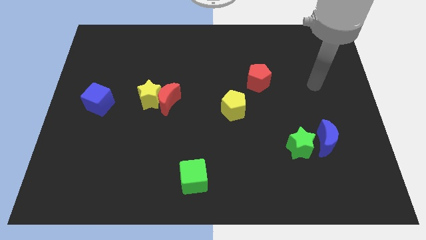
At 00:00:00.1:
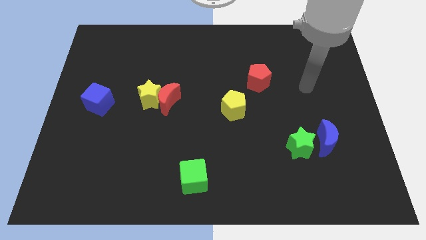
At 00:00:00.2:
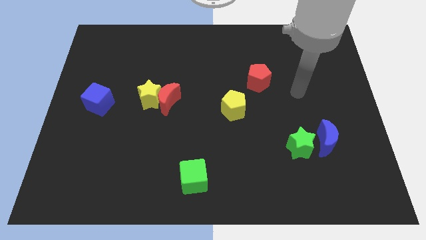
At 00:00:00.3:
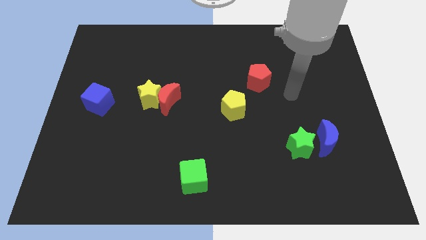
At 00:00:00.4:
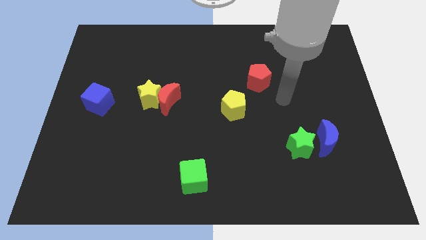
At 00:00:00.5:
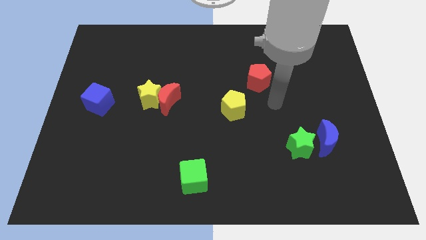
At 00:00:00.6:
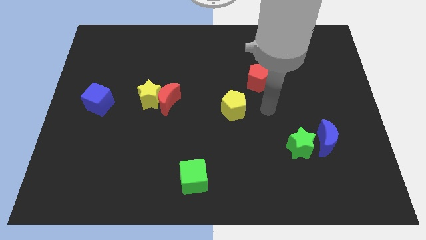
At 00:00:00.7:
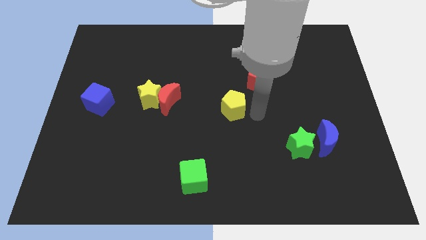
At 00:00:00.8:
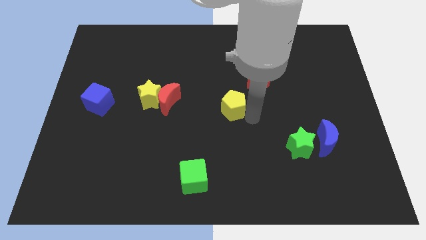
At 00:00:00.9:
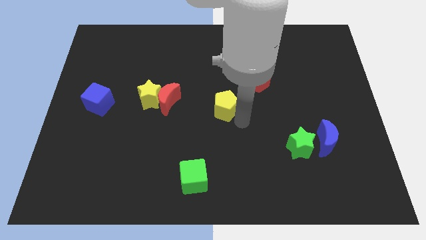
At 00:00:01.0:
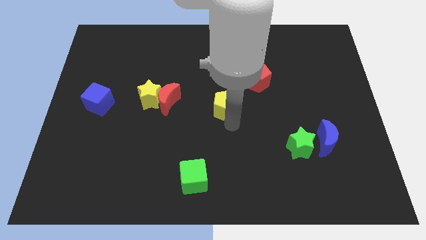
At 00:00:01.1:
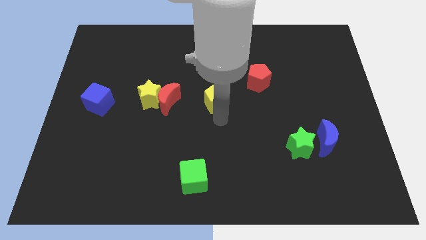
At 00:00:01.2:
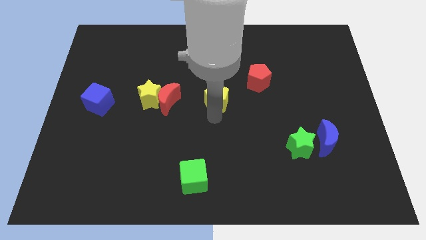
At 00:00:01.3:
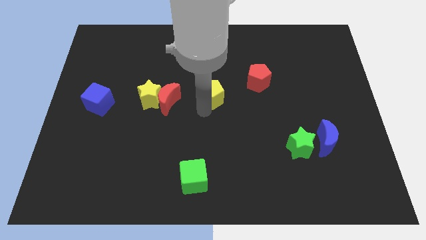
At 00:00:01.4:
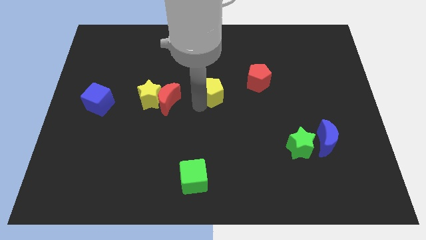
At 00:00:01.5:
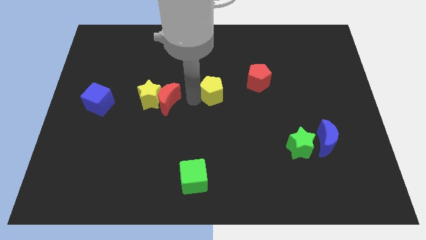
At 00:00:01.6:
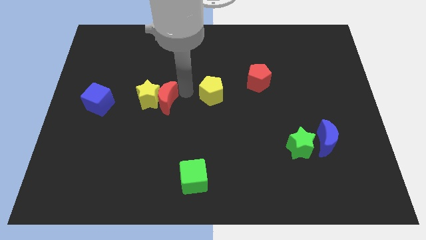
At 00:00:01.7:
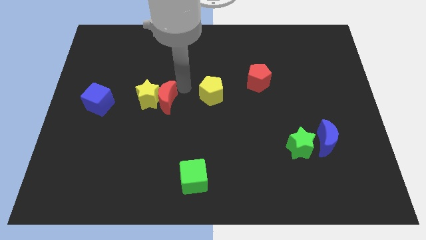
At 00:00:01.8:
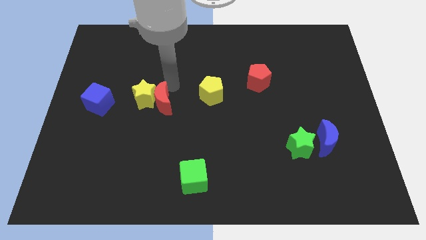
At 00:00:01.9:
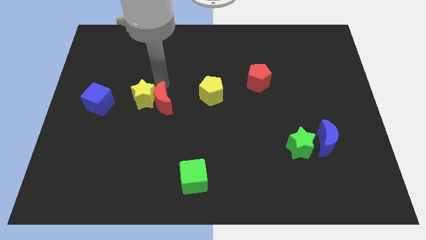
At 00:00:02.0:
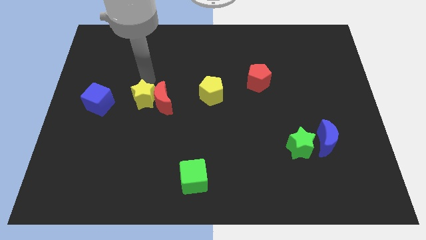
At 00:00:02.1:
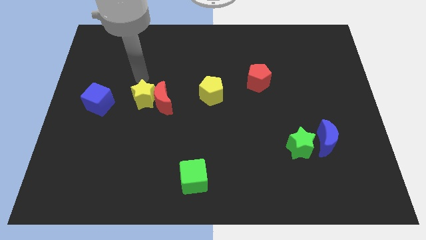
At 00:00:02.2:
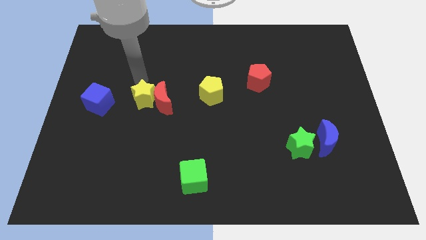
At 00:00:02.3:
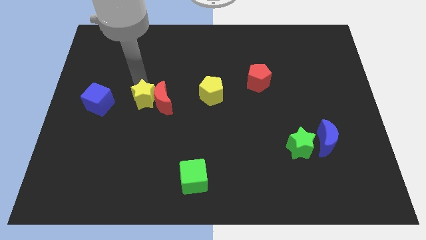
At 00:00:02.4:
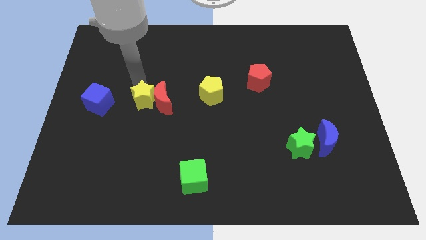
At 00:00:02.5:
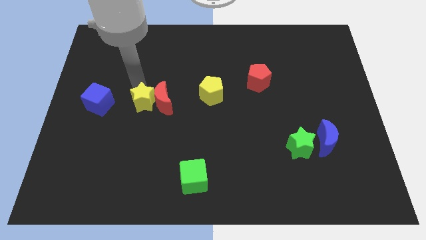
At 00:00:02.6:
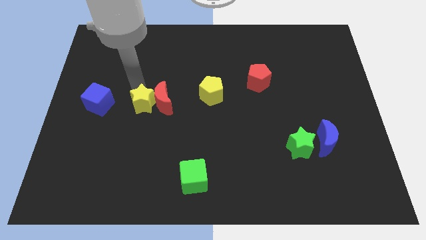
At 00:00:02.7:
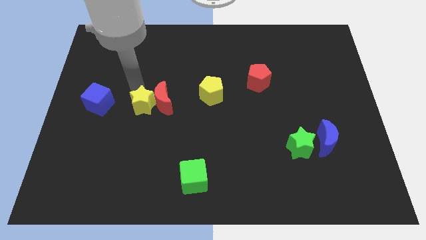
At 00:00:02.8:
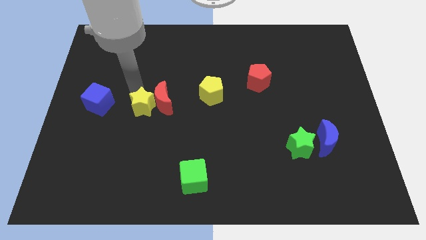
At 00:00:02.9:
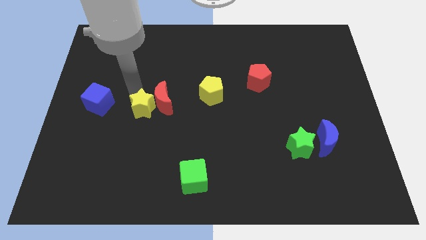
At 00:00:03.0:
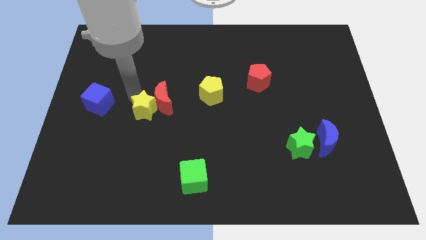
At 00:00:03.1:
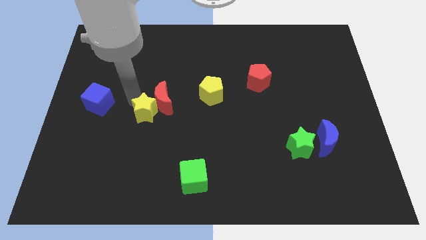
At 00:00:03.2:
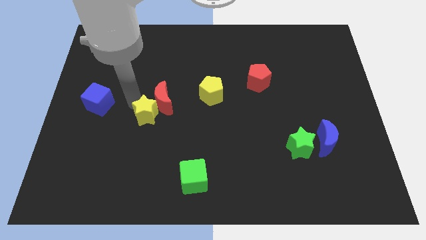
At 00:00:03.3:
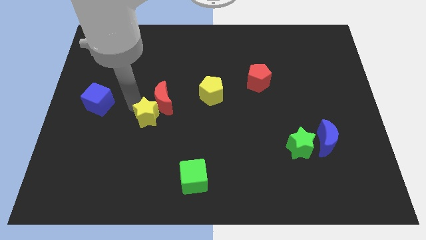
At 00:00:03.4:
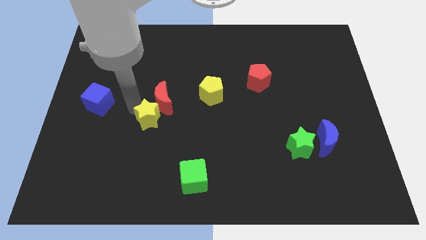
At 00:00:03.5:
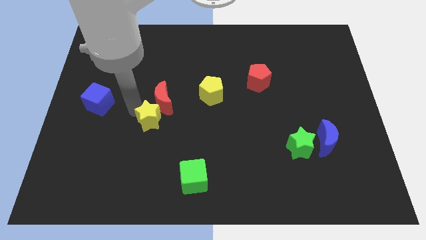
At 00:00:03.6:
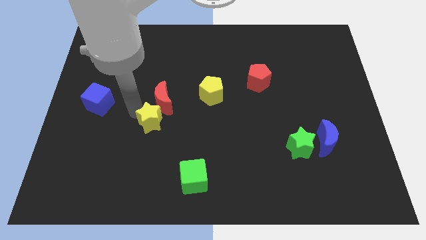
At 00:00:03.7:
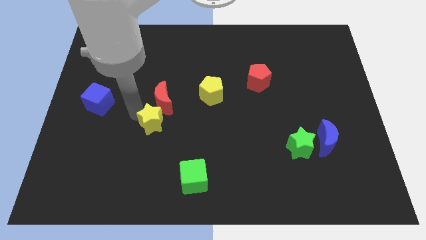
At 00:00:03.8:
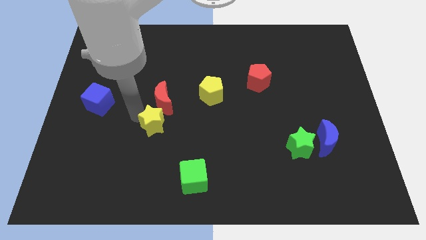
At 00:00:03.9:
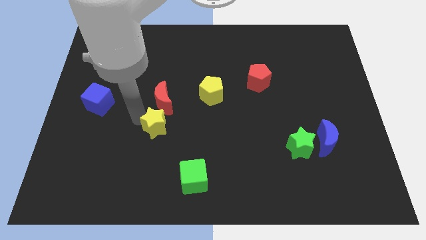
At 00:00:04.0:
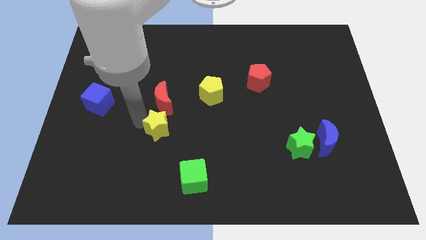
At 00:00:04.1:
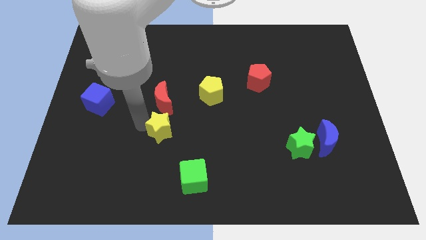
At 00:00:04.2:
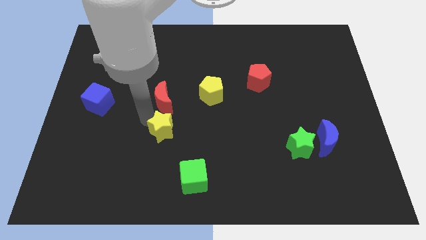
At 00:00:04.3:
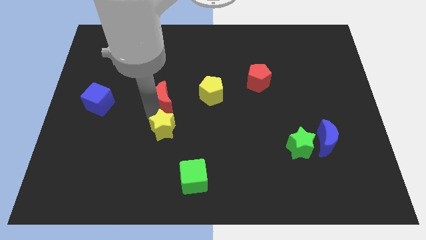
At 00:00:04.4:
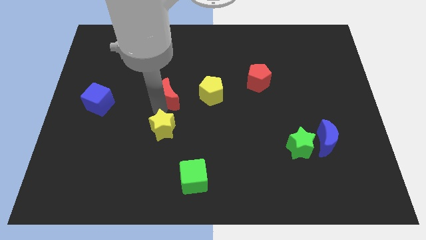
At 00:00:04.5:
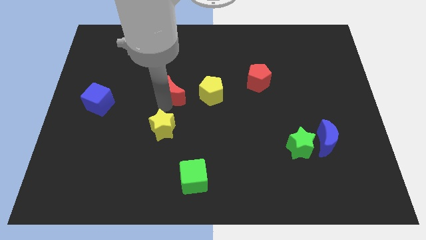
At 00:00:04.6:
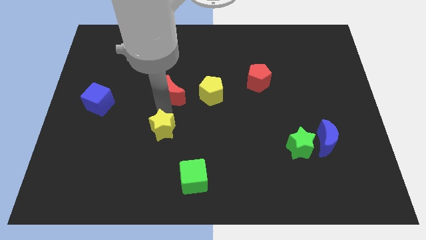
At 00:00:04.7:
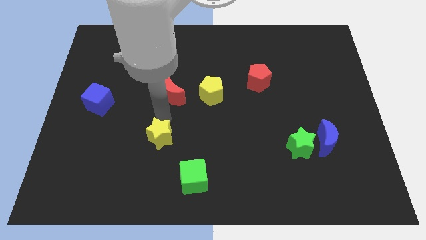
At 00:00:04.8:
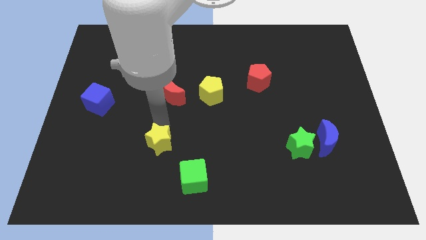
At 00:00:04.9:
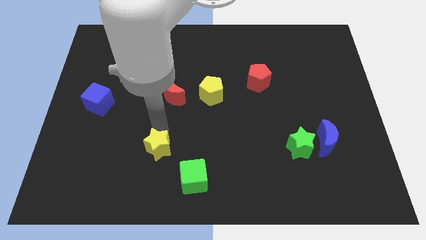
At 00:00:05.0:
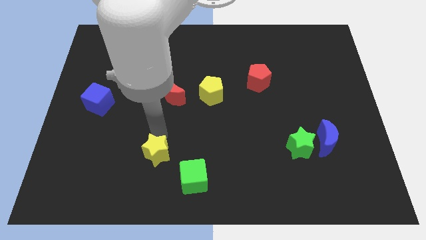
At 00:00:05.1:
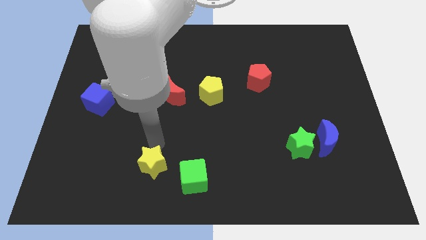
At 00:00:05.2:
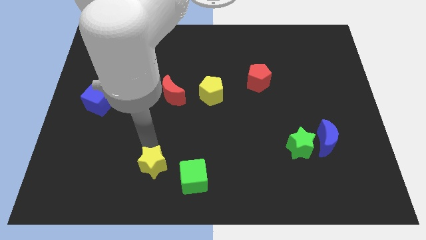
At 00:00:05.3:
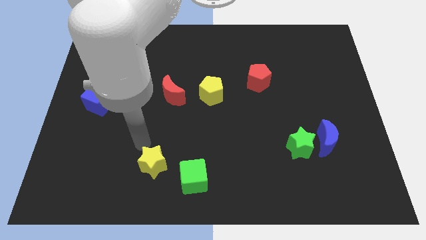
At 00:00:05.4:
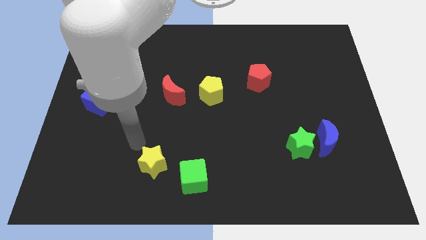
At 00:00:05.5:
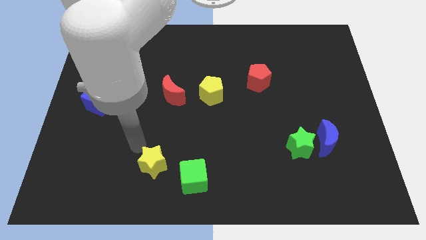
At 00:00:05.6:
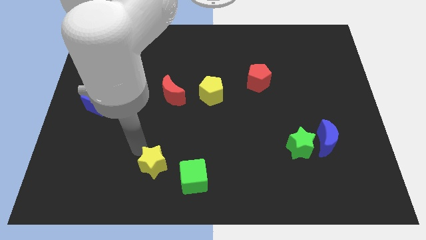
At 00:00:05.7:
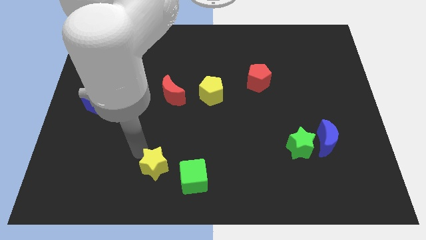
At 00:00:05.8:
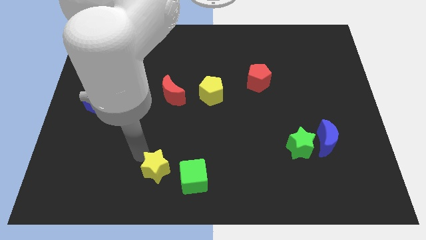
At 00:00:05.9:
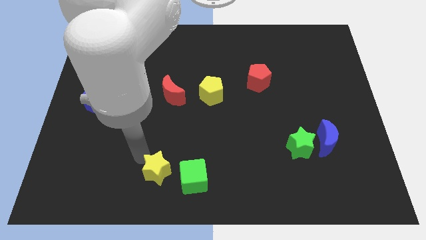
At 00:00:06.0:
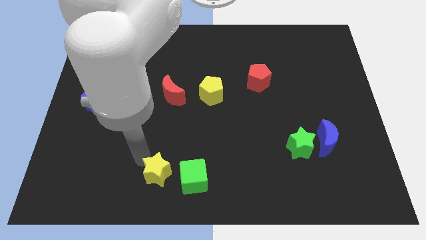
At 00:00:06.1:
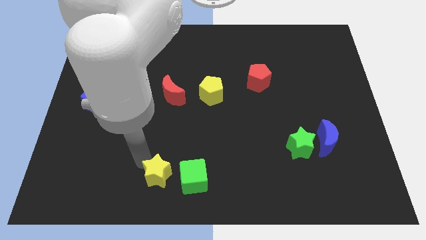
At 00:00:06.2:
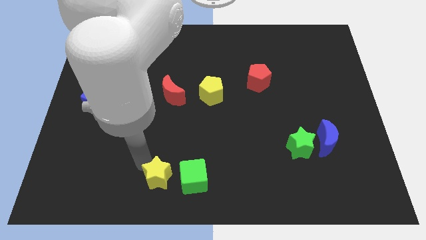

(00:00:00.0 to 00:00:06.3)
move the yellow star to the bottom
